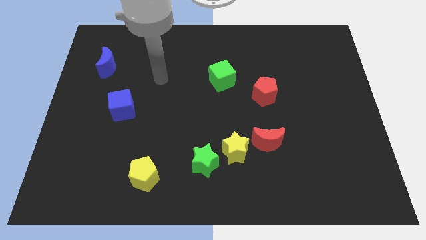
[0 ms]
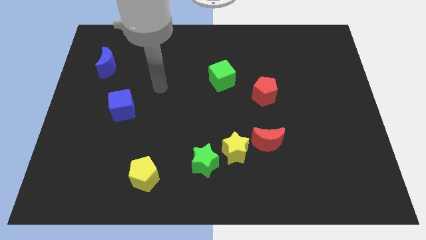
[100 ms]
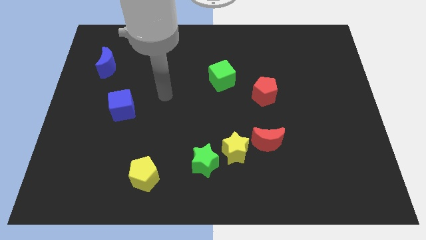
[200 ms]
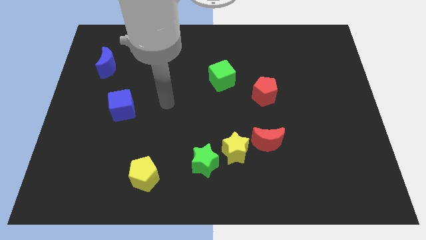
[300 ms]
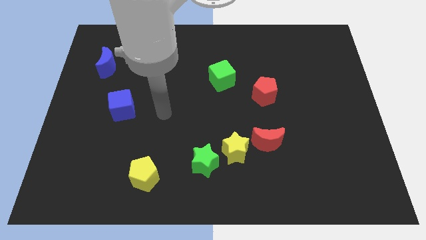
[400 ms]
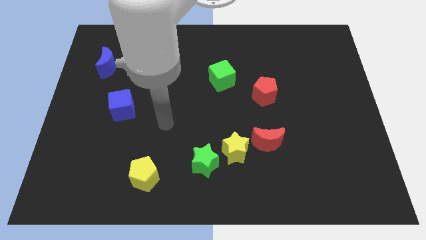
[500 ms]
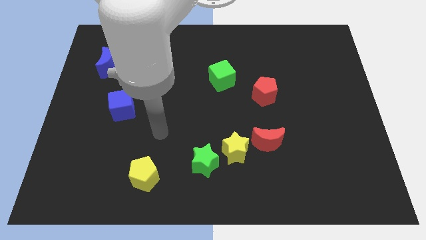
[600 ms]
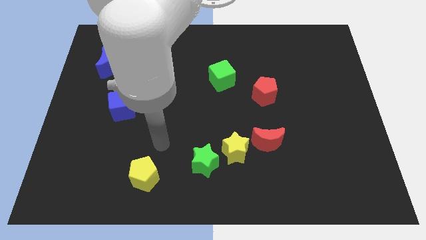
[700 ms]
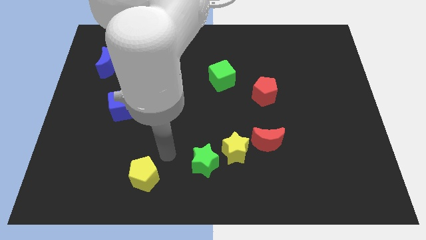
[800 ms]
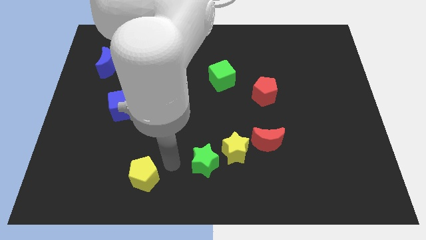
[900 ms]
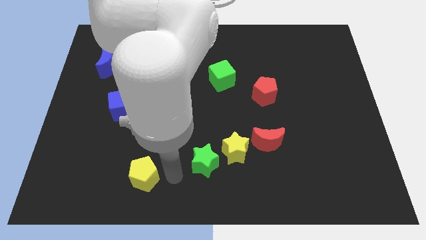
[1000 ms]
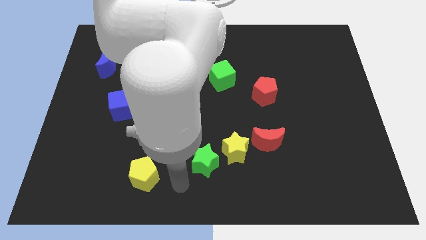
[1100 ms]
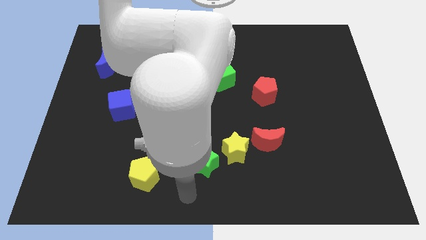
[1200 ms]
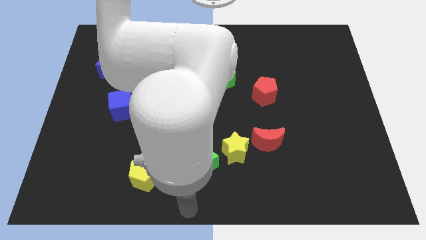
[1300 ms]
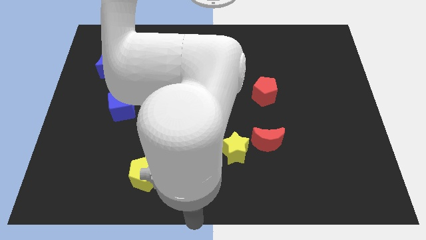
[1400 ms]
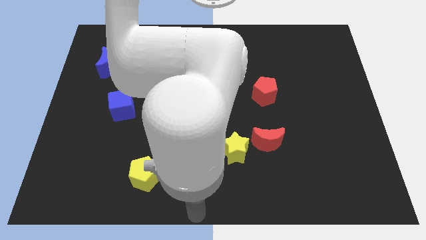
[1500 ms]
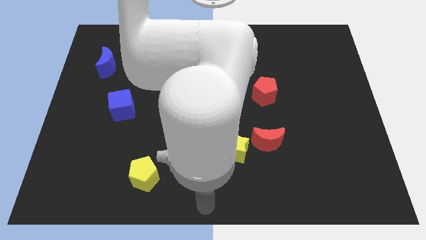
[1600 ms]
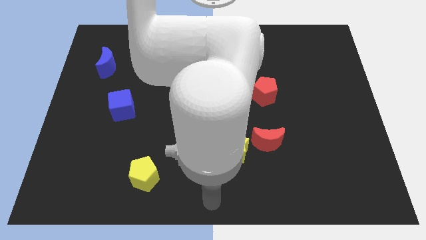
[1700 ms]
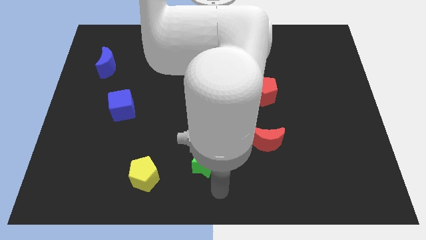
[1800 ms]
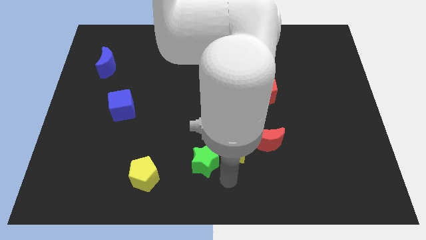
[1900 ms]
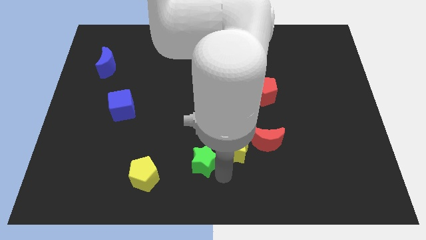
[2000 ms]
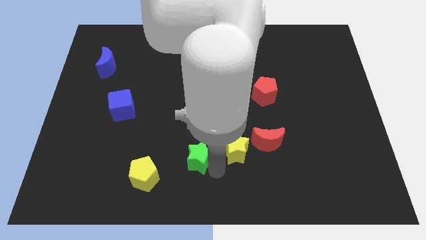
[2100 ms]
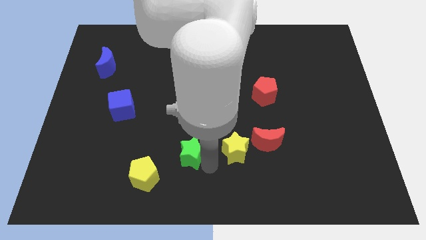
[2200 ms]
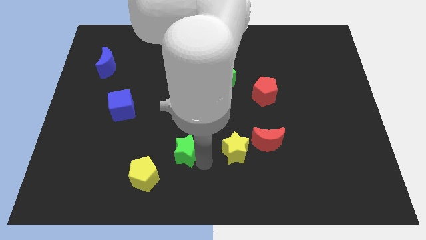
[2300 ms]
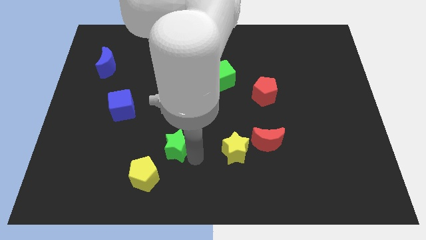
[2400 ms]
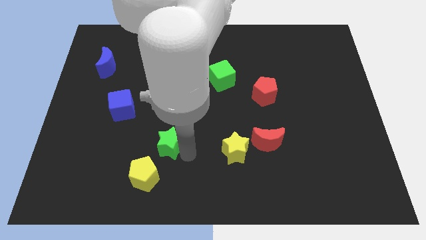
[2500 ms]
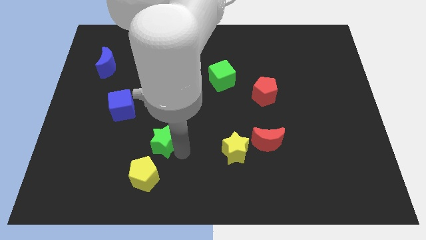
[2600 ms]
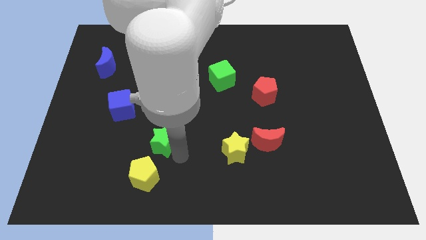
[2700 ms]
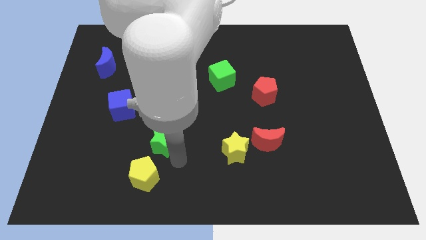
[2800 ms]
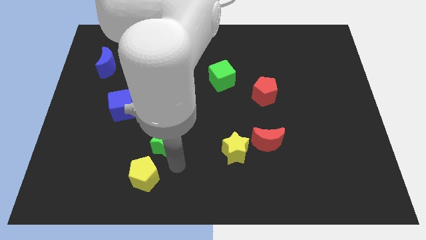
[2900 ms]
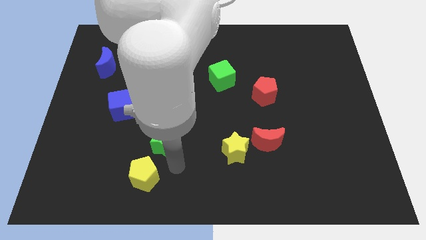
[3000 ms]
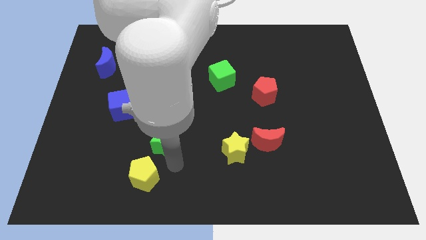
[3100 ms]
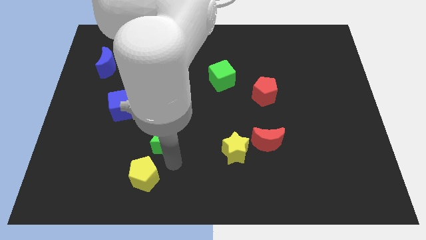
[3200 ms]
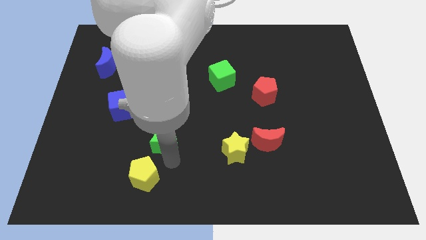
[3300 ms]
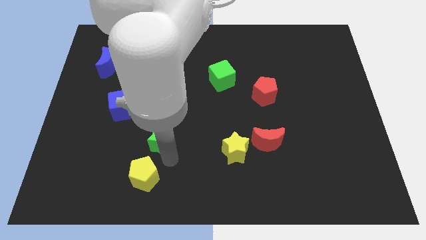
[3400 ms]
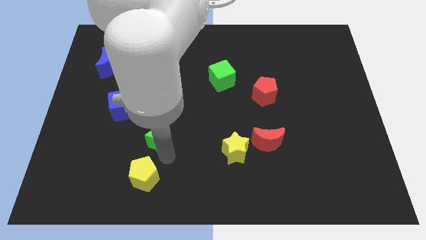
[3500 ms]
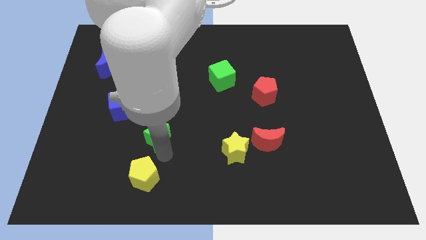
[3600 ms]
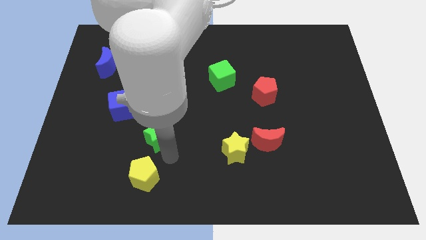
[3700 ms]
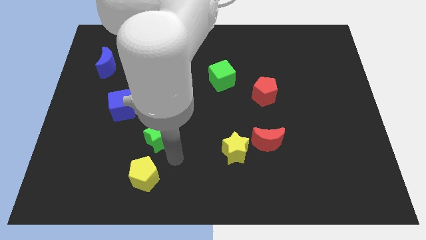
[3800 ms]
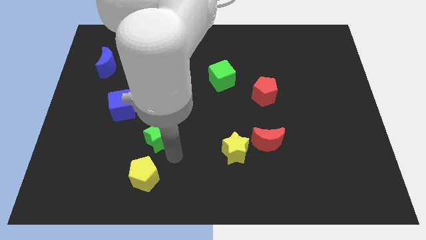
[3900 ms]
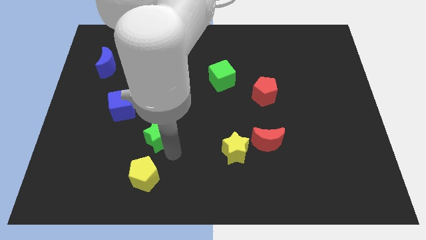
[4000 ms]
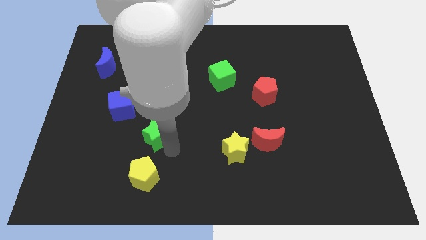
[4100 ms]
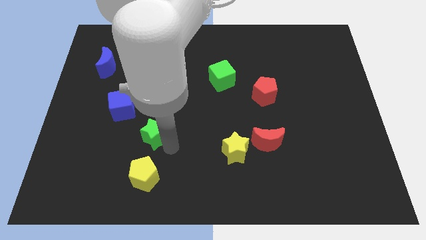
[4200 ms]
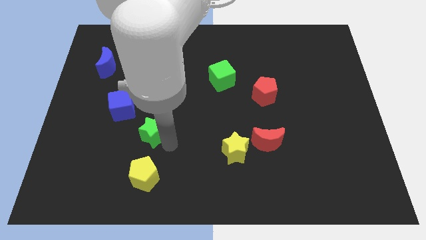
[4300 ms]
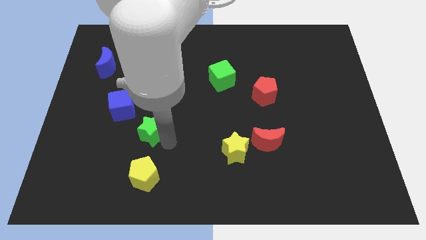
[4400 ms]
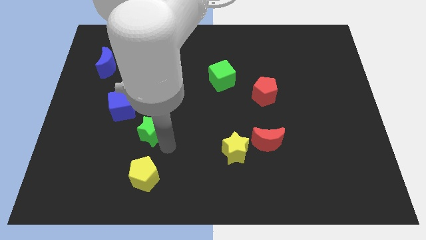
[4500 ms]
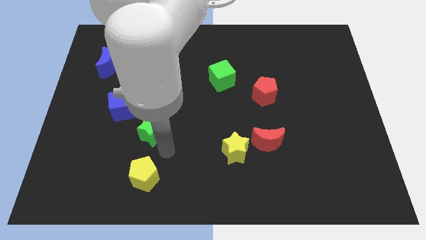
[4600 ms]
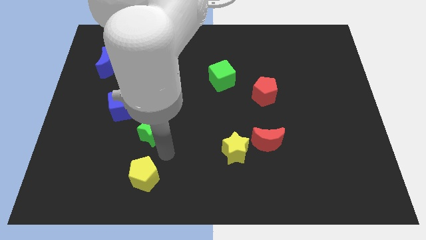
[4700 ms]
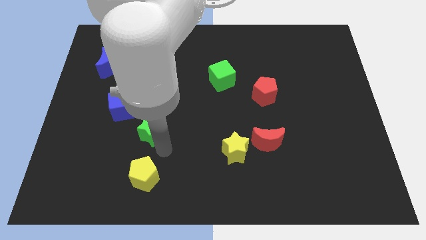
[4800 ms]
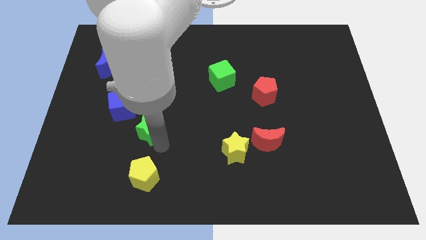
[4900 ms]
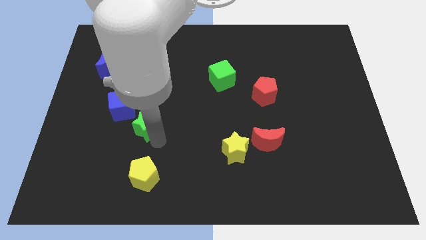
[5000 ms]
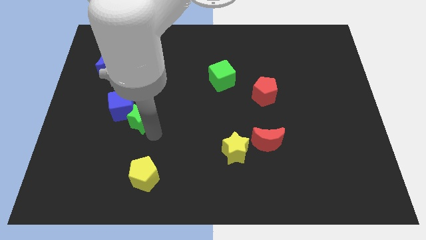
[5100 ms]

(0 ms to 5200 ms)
slide the green star close to the blue cube

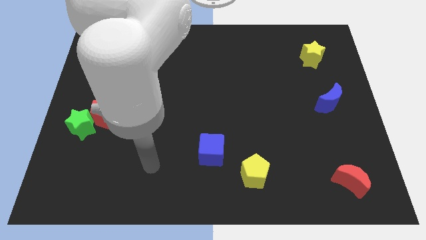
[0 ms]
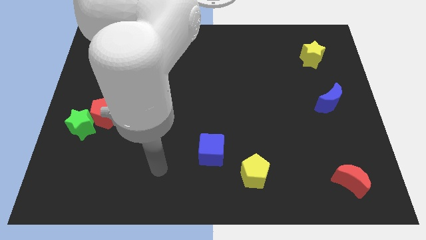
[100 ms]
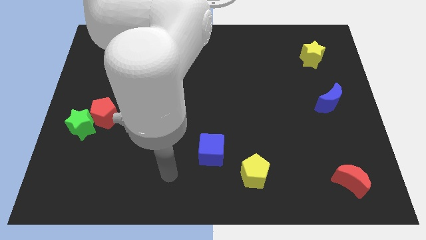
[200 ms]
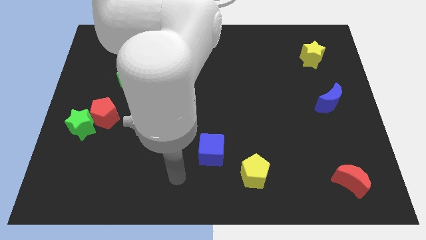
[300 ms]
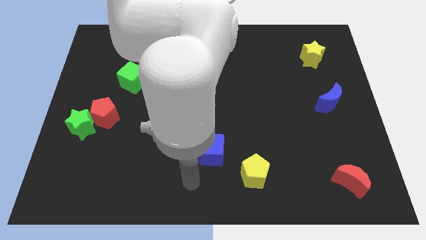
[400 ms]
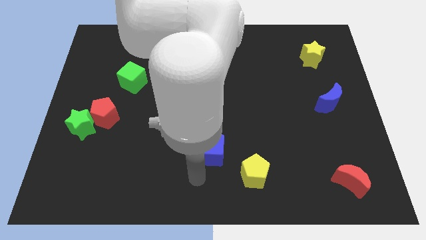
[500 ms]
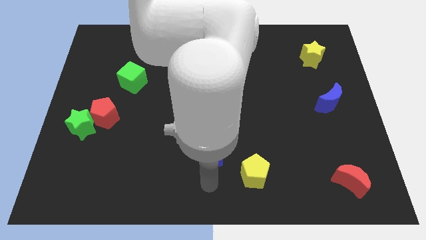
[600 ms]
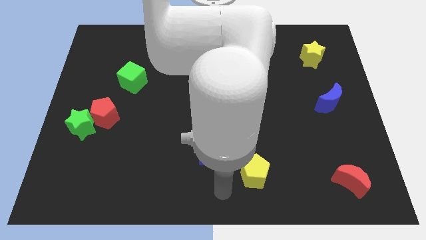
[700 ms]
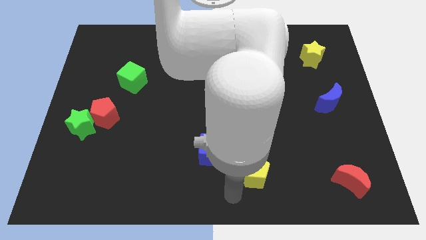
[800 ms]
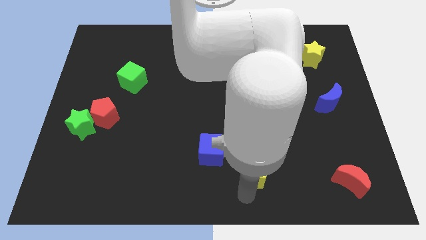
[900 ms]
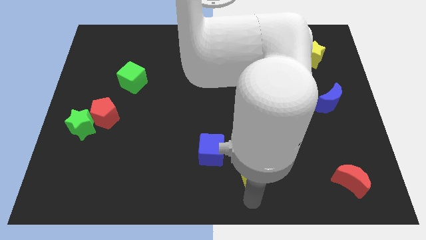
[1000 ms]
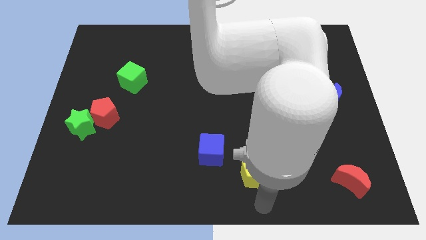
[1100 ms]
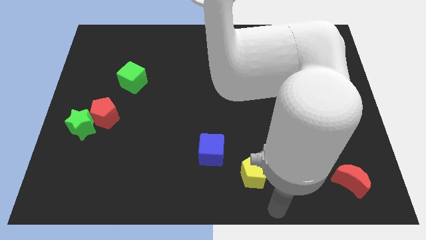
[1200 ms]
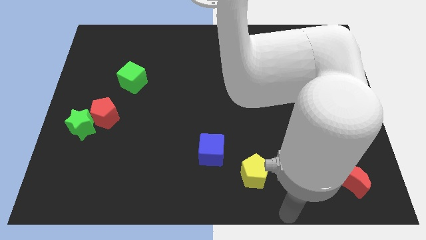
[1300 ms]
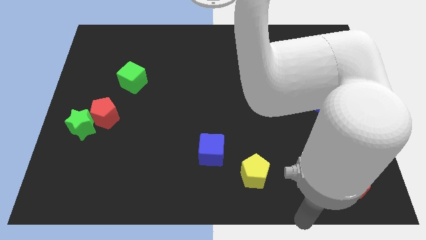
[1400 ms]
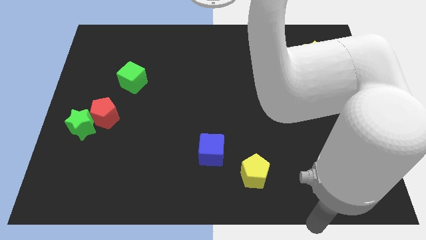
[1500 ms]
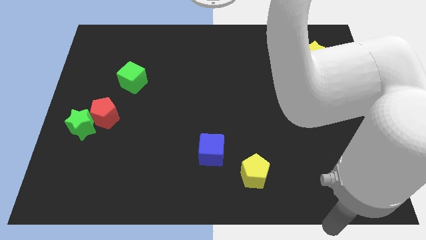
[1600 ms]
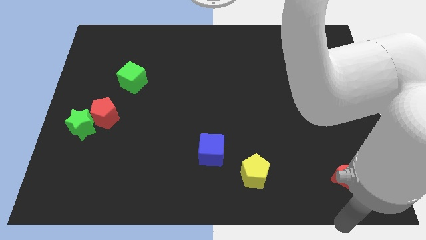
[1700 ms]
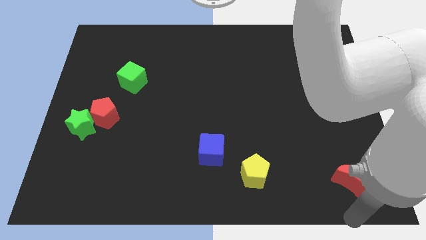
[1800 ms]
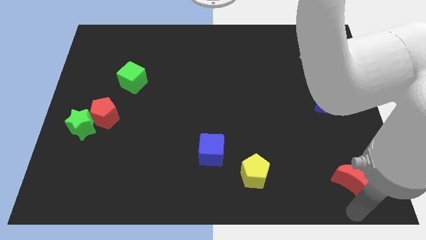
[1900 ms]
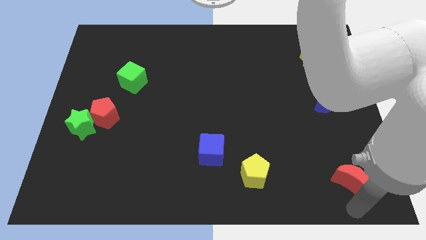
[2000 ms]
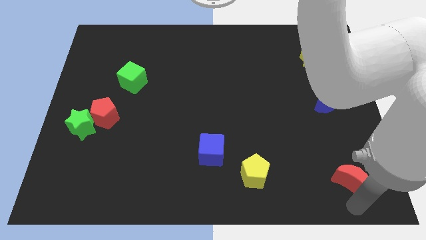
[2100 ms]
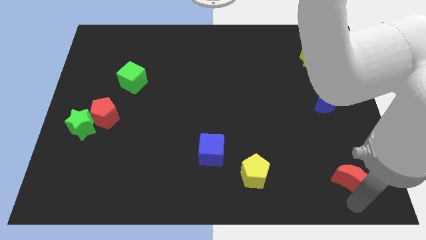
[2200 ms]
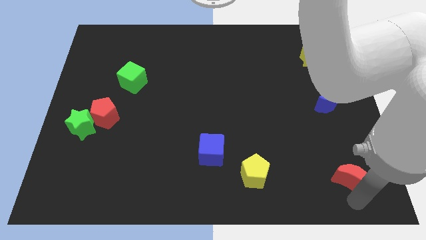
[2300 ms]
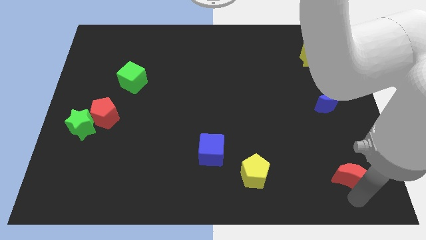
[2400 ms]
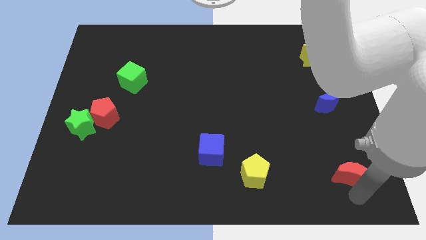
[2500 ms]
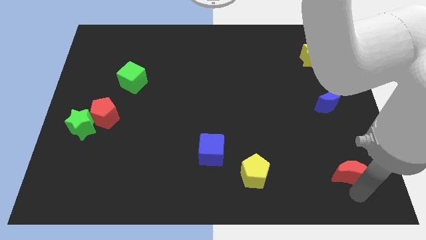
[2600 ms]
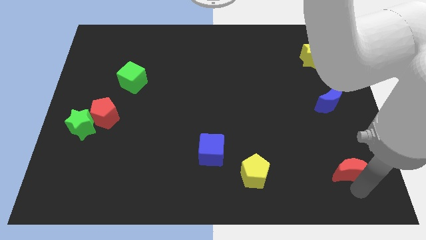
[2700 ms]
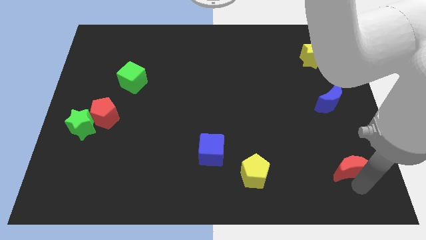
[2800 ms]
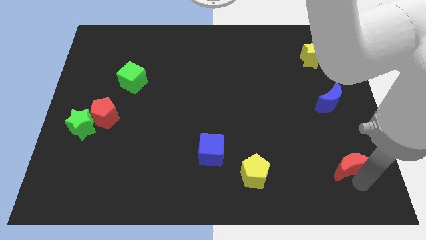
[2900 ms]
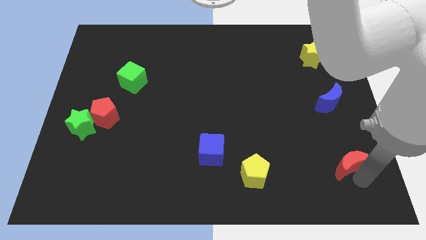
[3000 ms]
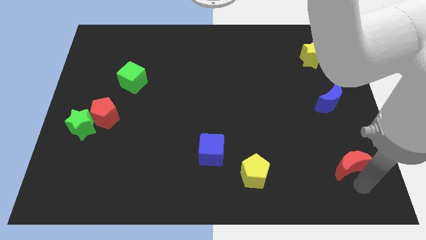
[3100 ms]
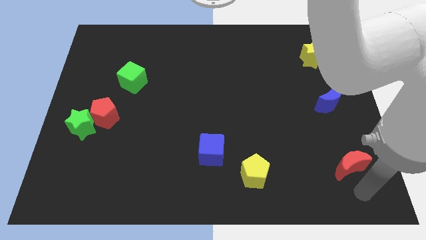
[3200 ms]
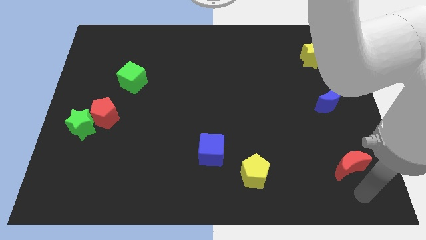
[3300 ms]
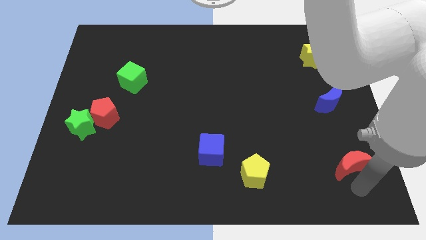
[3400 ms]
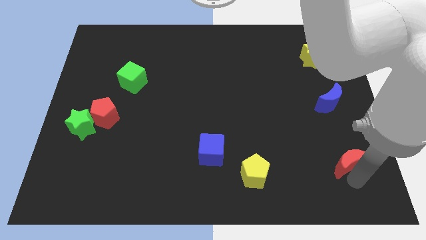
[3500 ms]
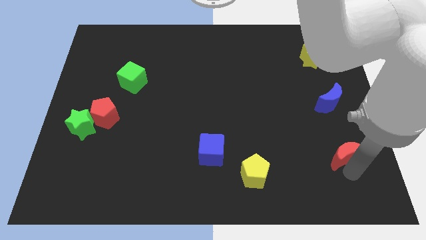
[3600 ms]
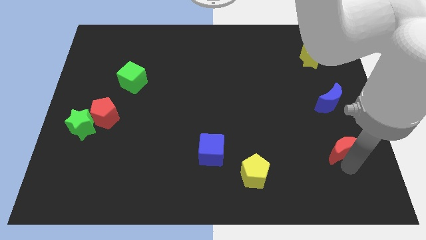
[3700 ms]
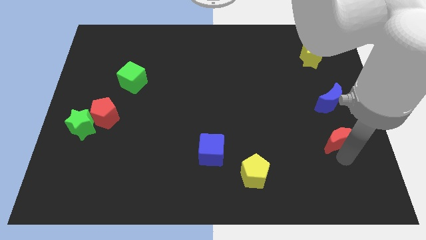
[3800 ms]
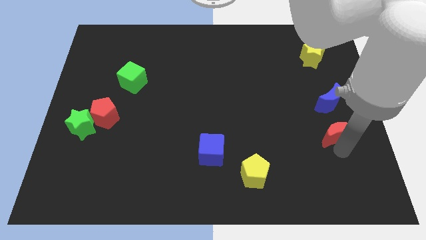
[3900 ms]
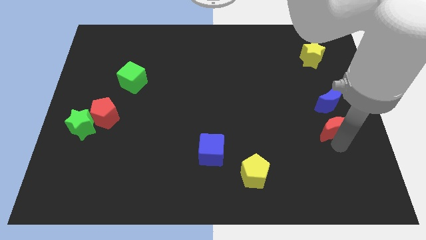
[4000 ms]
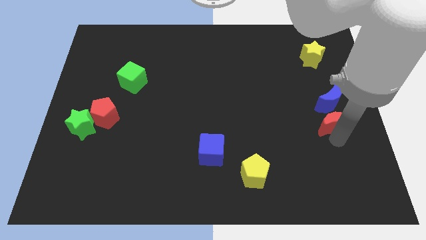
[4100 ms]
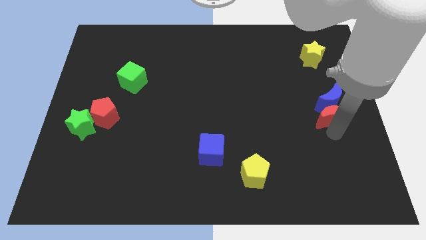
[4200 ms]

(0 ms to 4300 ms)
move the red moon close to the blue moon
